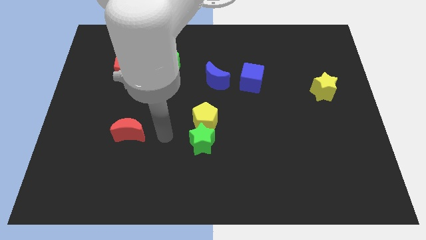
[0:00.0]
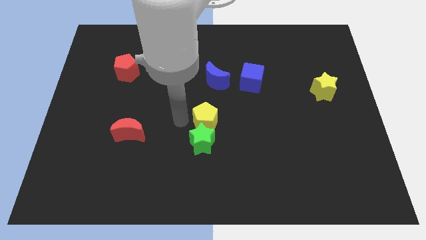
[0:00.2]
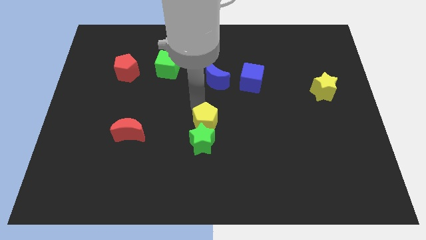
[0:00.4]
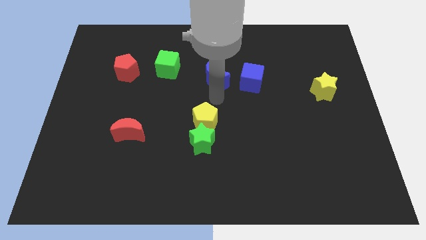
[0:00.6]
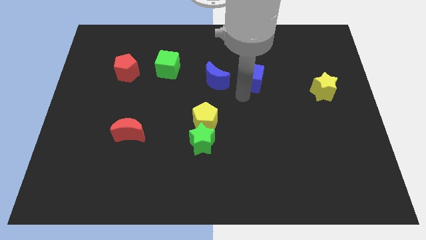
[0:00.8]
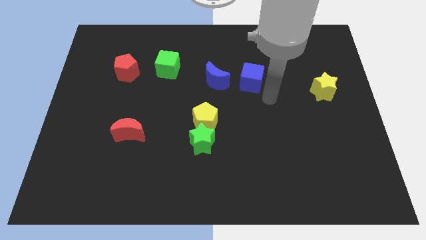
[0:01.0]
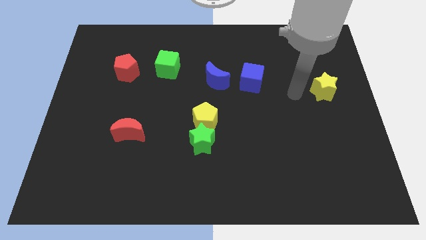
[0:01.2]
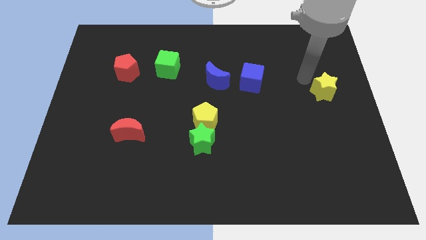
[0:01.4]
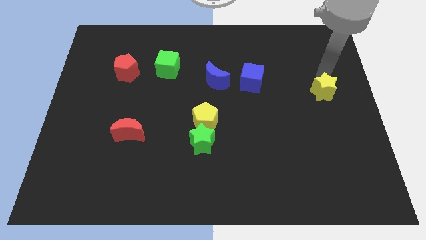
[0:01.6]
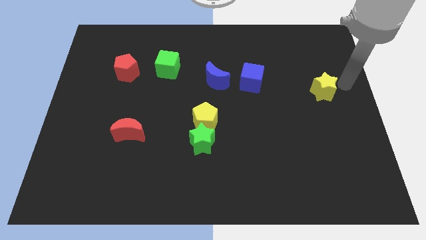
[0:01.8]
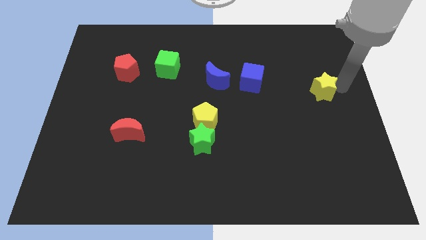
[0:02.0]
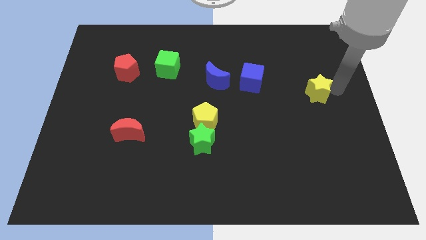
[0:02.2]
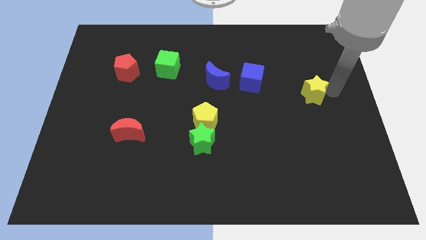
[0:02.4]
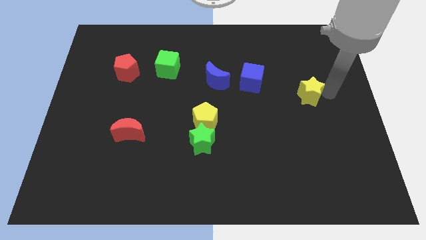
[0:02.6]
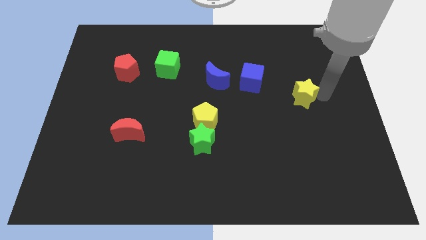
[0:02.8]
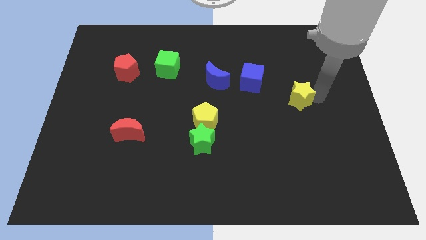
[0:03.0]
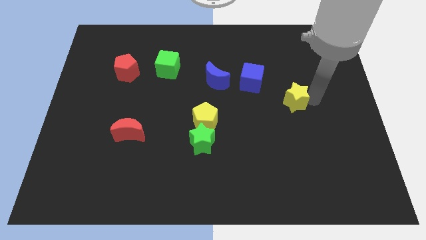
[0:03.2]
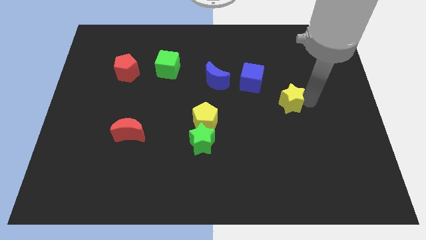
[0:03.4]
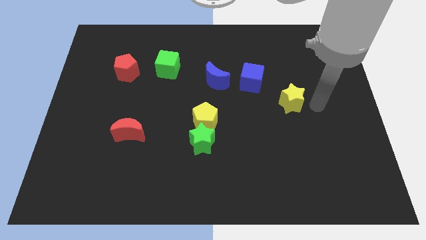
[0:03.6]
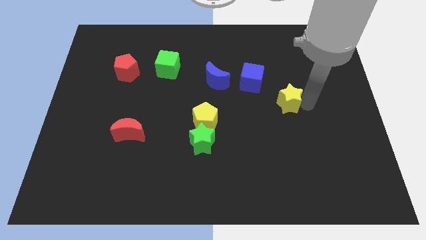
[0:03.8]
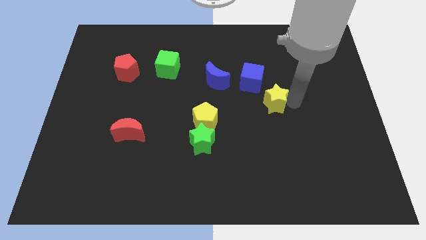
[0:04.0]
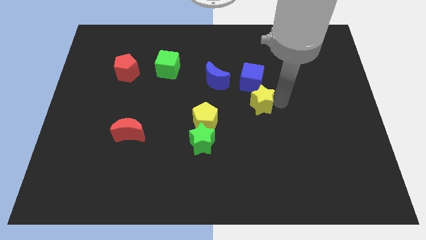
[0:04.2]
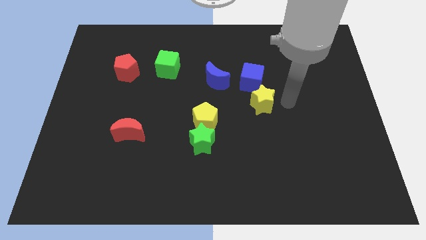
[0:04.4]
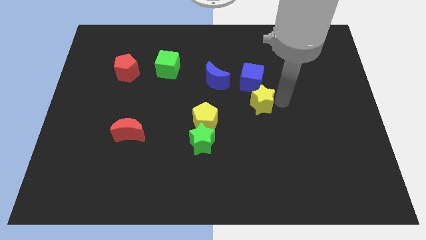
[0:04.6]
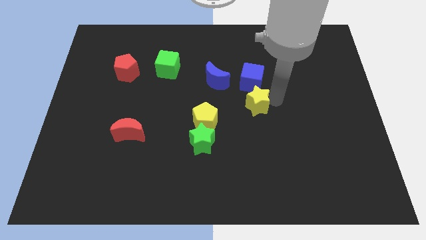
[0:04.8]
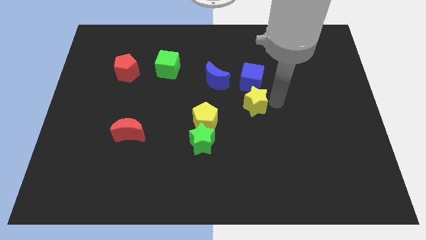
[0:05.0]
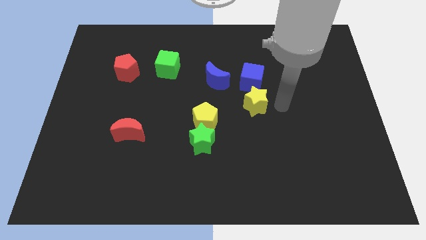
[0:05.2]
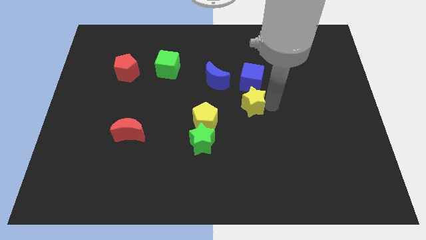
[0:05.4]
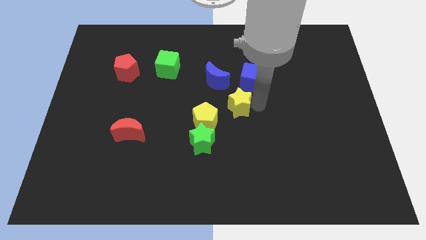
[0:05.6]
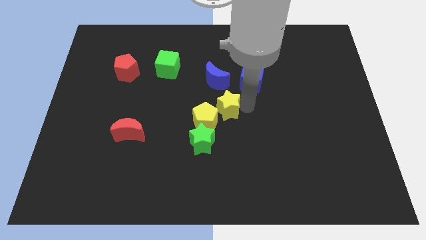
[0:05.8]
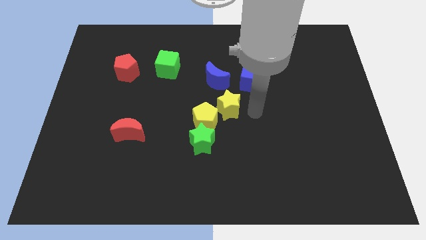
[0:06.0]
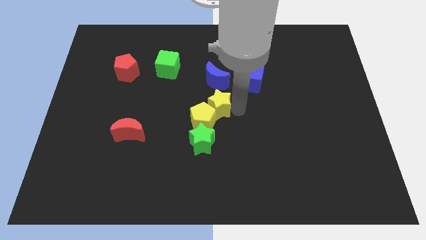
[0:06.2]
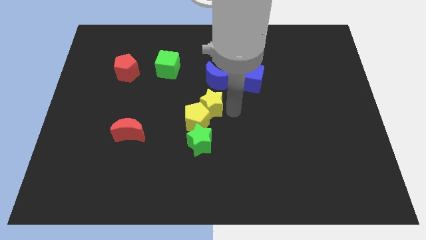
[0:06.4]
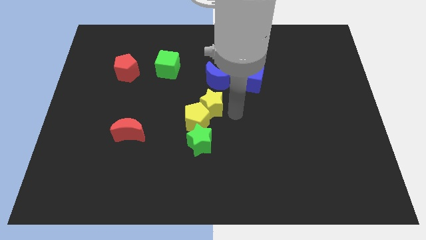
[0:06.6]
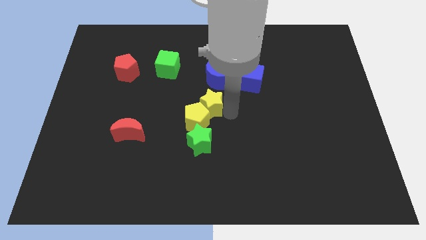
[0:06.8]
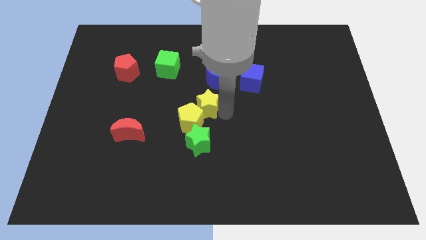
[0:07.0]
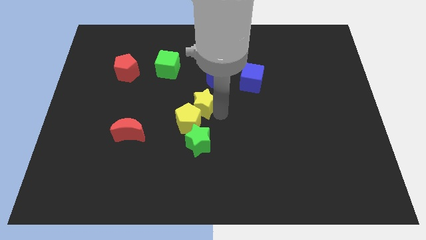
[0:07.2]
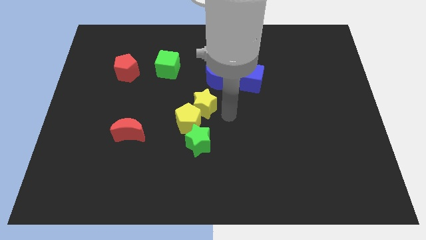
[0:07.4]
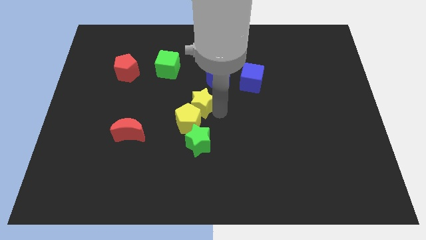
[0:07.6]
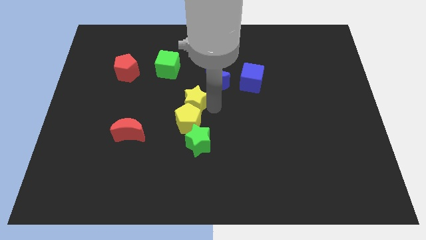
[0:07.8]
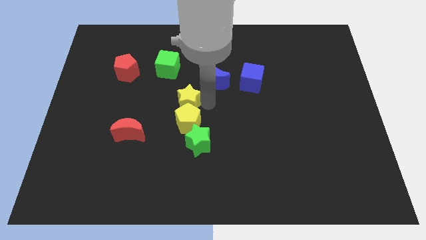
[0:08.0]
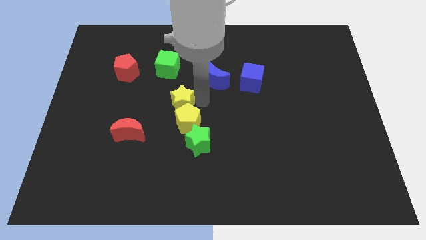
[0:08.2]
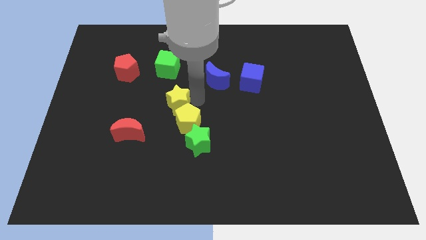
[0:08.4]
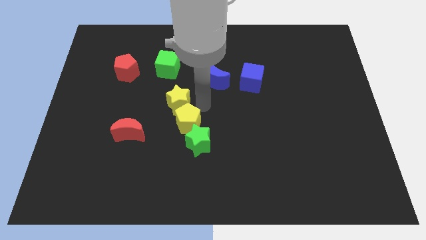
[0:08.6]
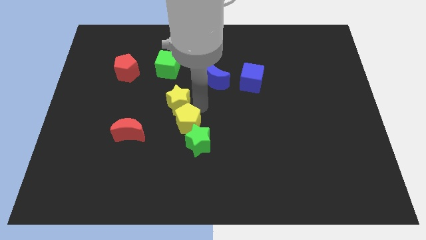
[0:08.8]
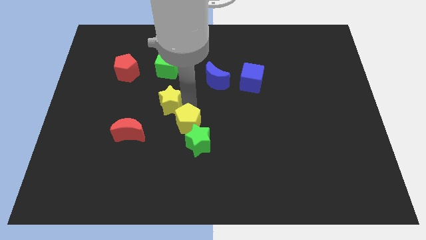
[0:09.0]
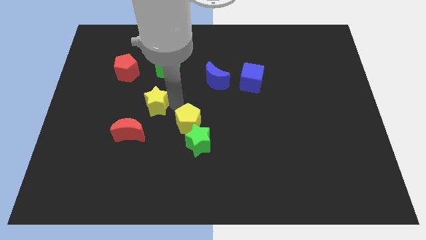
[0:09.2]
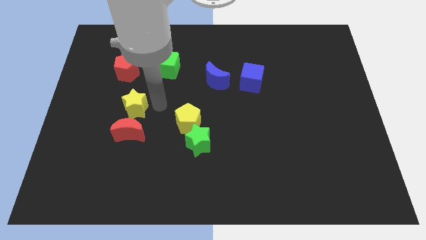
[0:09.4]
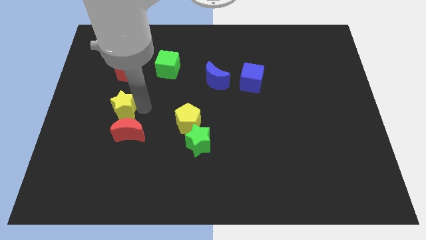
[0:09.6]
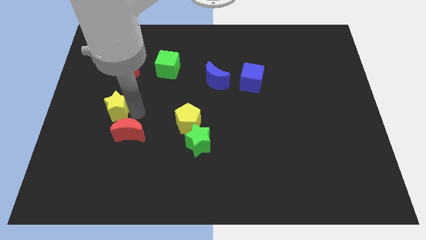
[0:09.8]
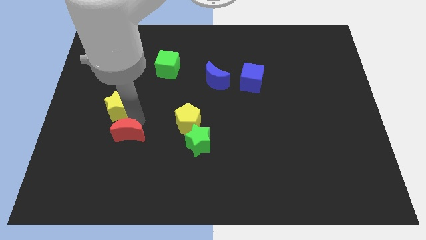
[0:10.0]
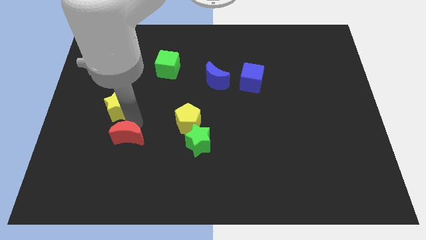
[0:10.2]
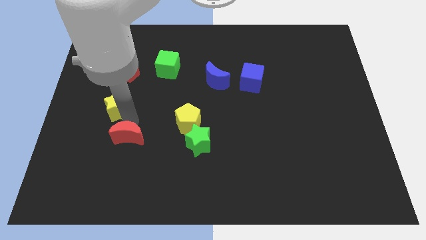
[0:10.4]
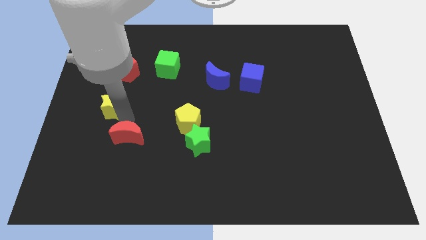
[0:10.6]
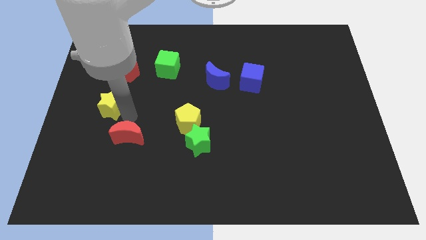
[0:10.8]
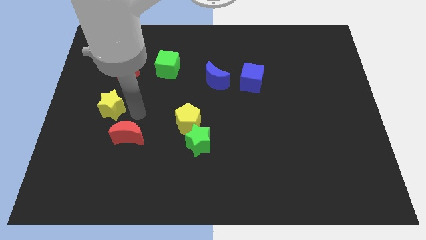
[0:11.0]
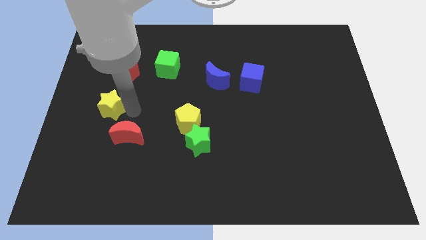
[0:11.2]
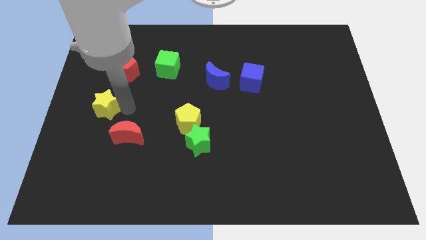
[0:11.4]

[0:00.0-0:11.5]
push the yellow star to the center left

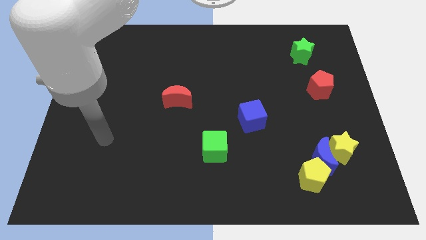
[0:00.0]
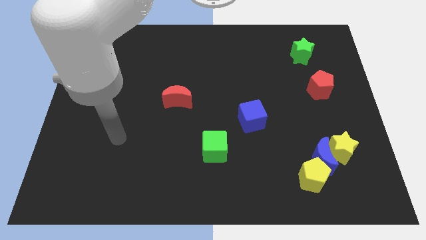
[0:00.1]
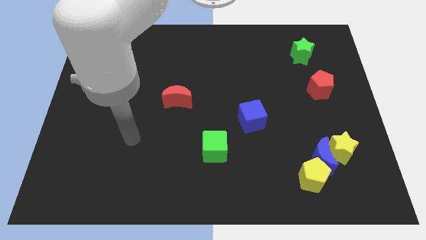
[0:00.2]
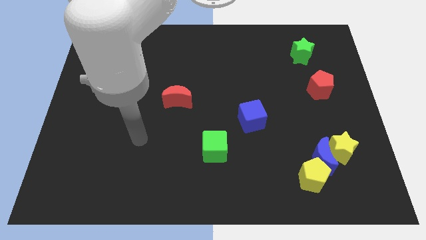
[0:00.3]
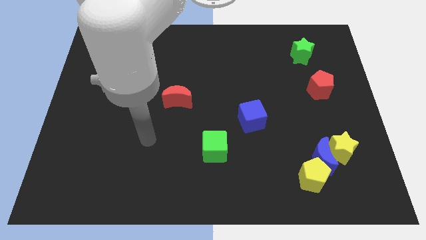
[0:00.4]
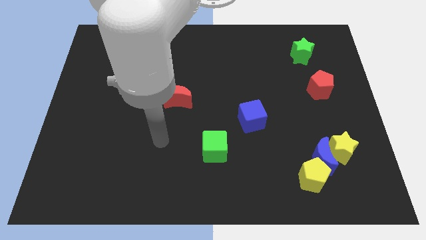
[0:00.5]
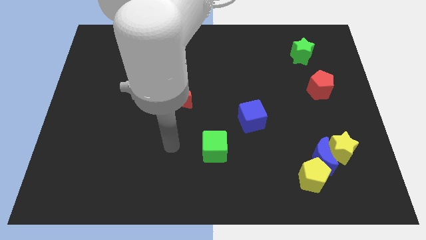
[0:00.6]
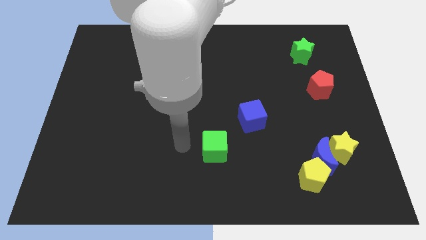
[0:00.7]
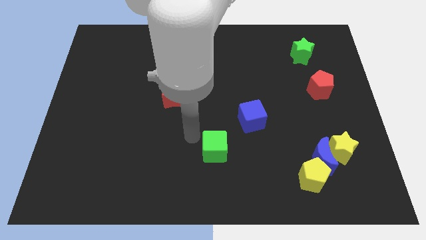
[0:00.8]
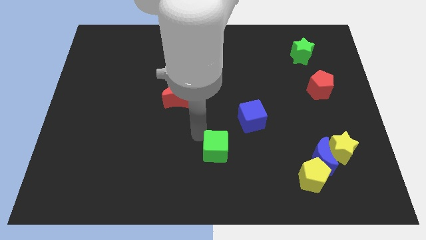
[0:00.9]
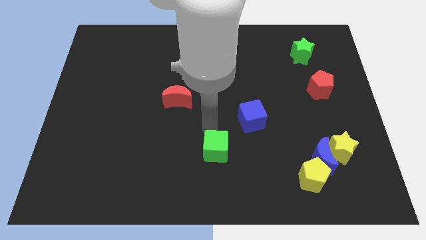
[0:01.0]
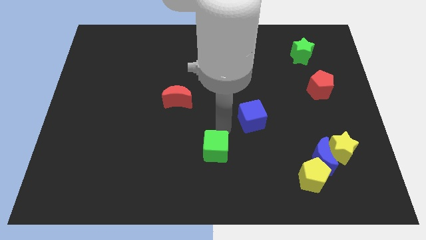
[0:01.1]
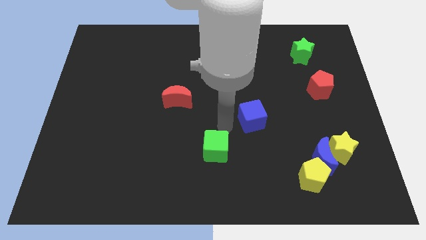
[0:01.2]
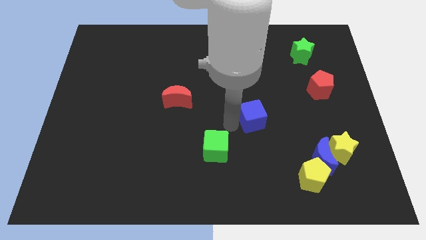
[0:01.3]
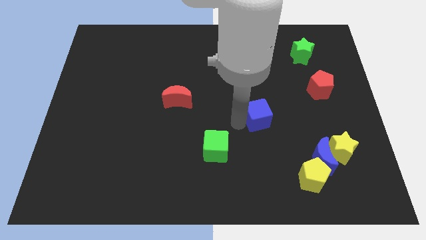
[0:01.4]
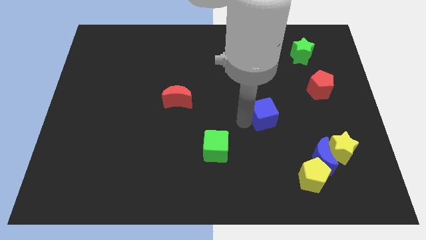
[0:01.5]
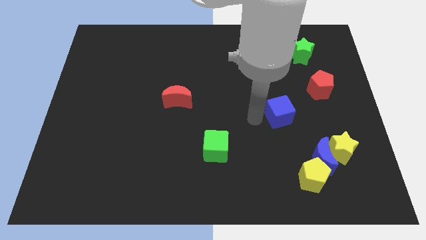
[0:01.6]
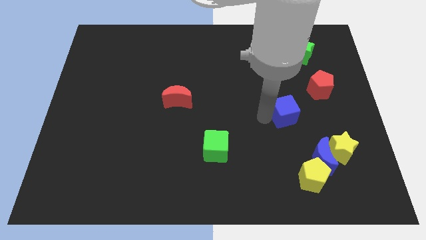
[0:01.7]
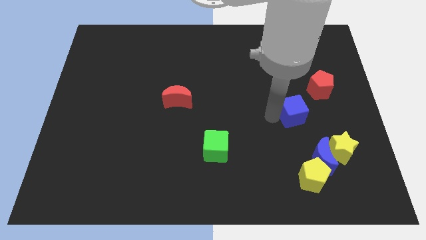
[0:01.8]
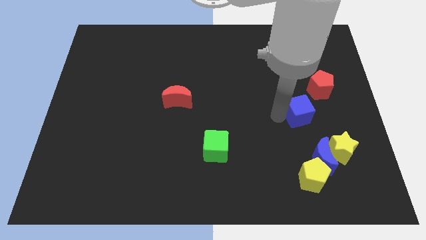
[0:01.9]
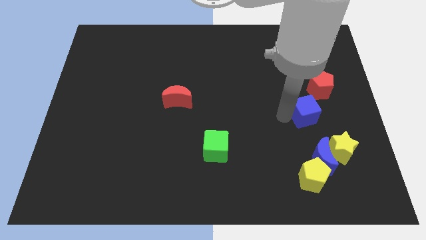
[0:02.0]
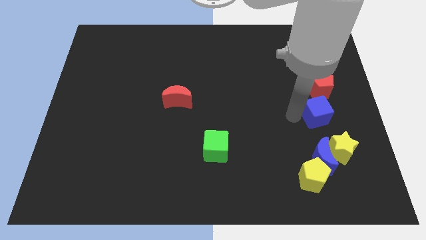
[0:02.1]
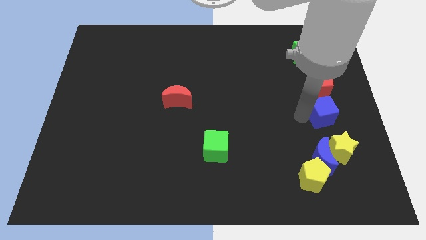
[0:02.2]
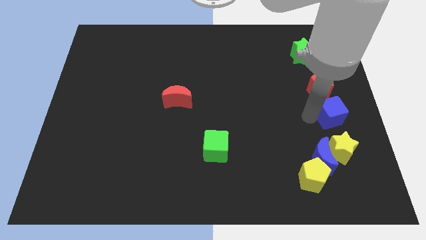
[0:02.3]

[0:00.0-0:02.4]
move the blue cube to the right side of the board
